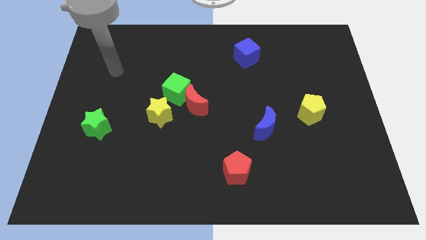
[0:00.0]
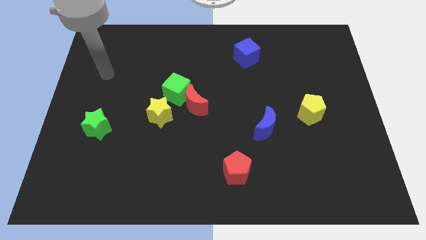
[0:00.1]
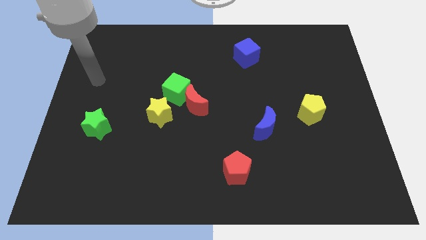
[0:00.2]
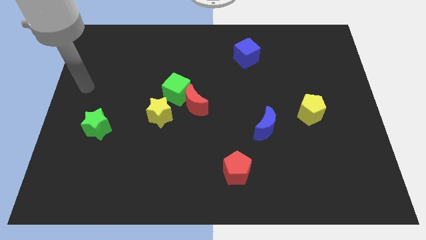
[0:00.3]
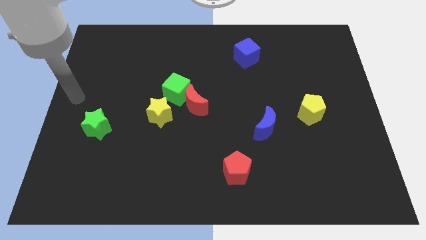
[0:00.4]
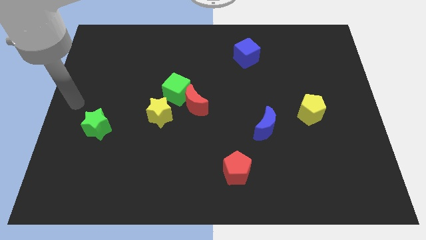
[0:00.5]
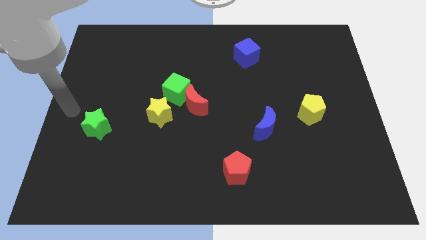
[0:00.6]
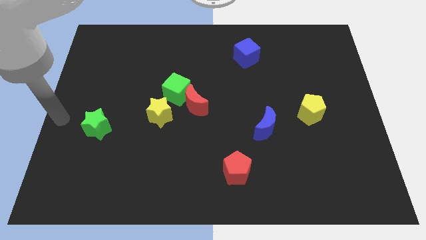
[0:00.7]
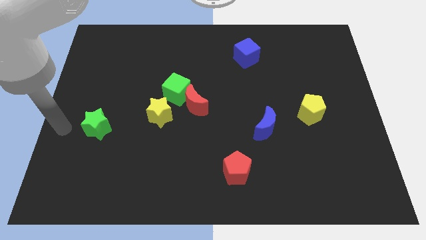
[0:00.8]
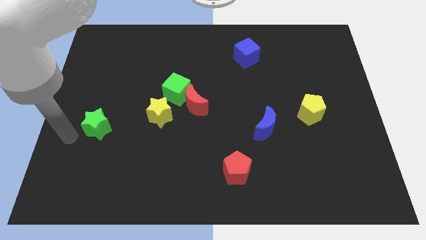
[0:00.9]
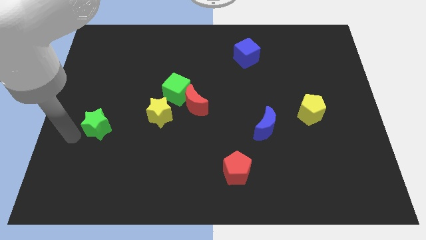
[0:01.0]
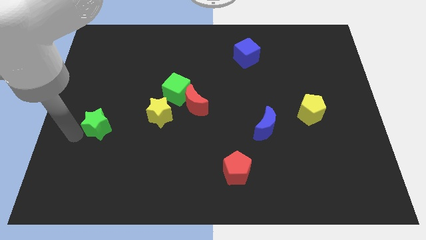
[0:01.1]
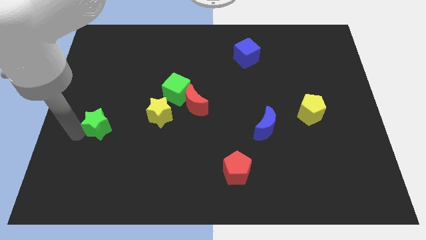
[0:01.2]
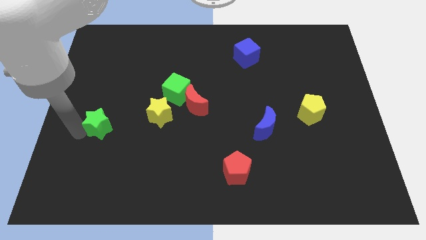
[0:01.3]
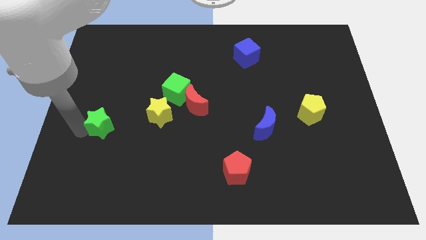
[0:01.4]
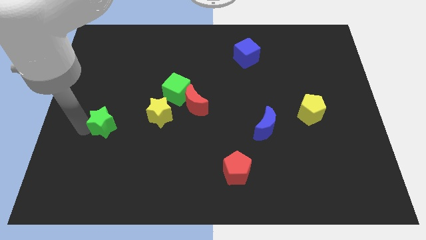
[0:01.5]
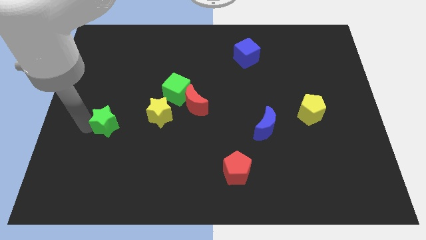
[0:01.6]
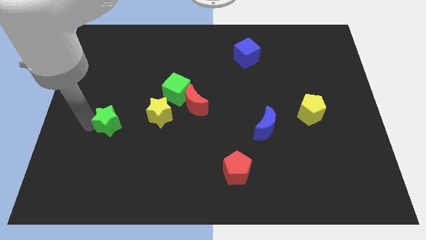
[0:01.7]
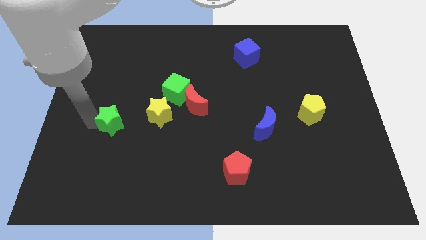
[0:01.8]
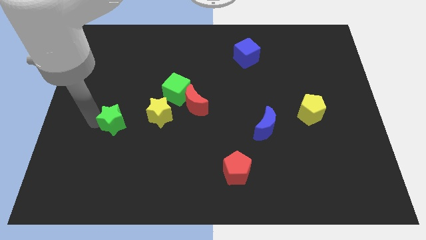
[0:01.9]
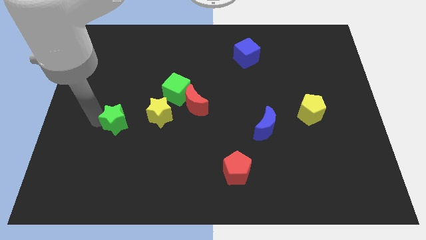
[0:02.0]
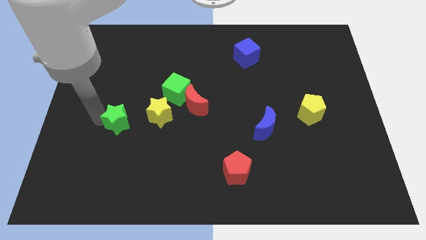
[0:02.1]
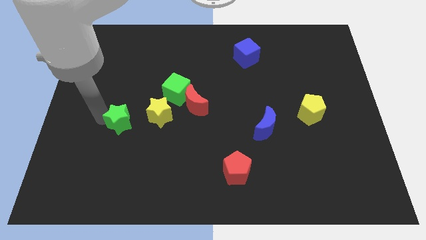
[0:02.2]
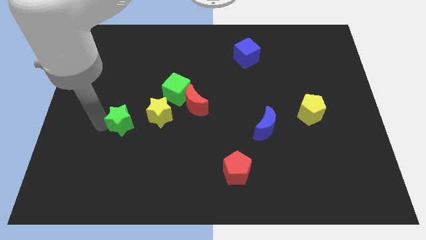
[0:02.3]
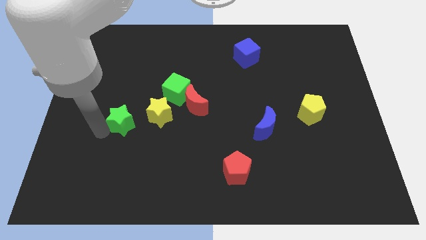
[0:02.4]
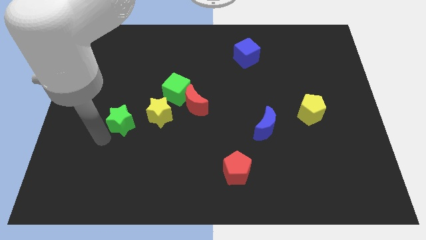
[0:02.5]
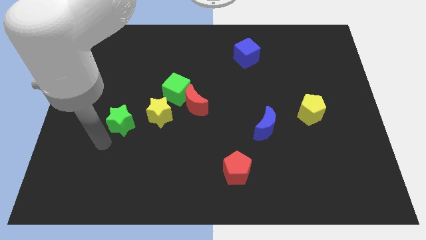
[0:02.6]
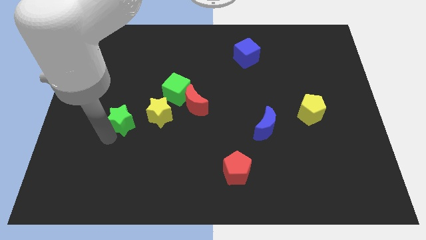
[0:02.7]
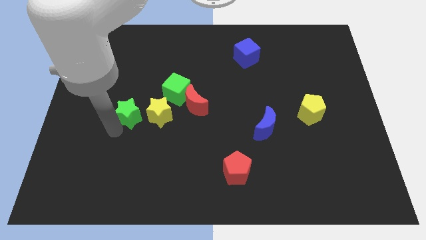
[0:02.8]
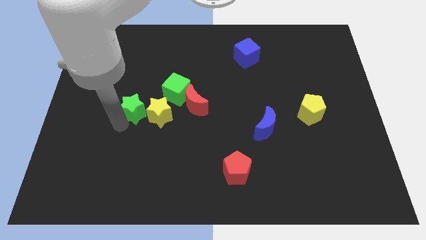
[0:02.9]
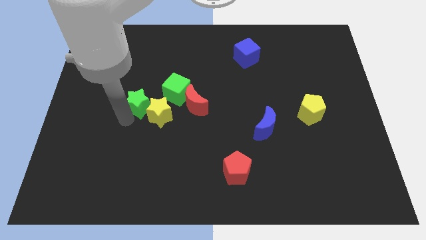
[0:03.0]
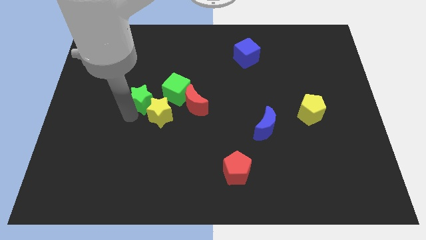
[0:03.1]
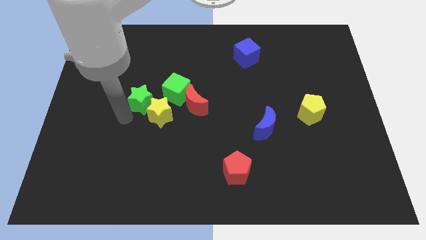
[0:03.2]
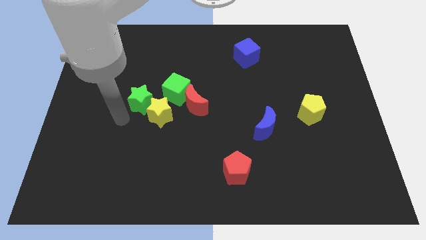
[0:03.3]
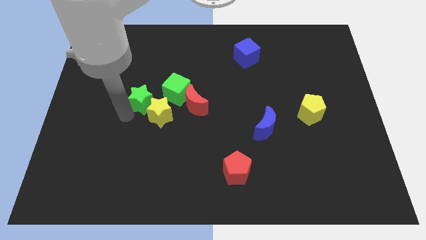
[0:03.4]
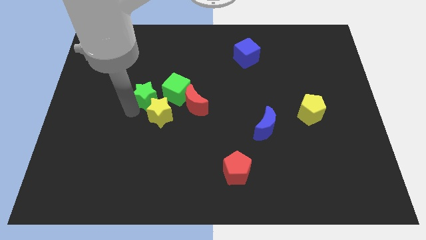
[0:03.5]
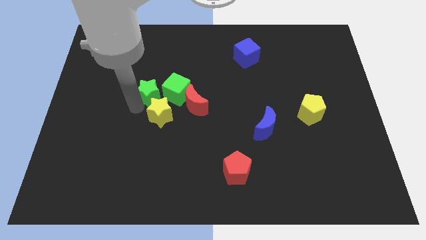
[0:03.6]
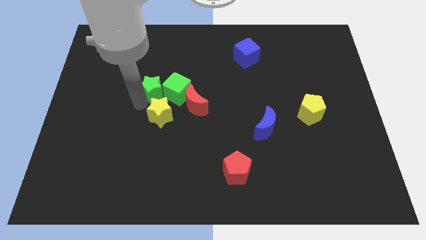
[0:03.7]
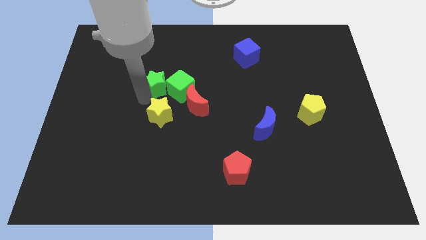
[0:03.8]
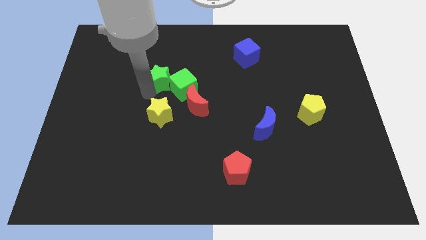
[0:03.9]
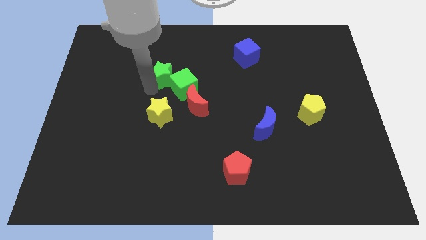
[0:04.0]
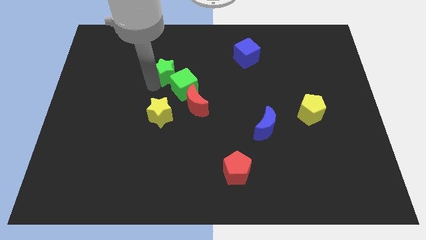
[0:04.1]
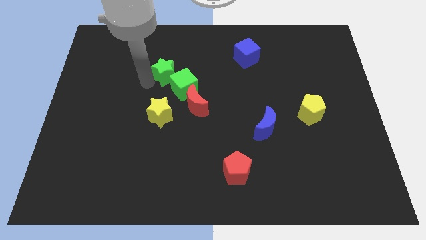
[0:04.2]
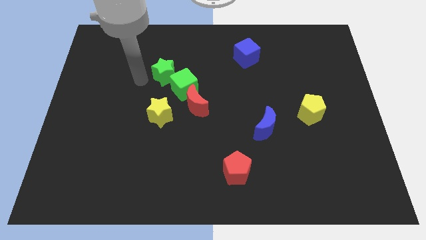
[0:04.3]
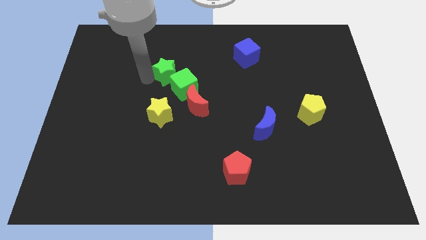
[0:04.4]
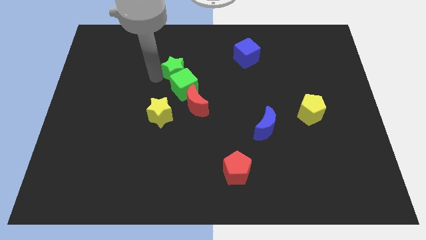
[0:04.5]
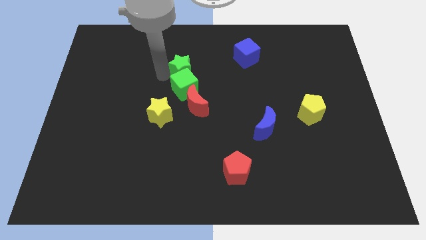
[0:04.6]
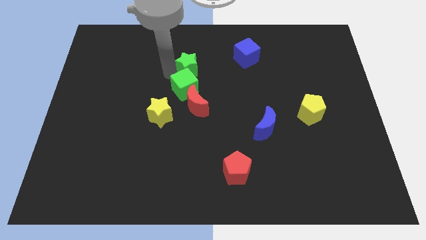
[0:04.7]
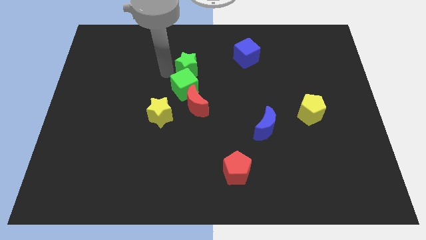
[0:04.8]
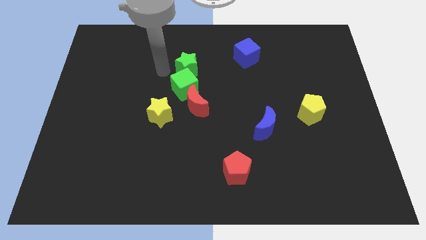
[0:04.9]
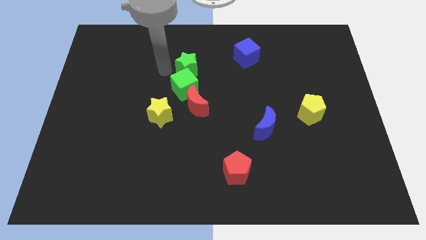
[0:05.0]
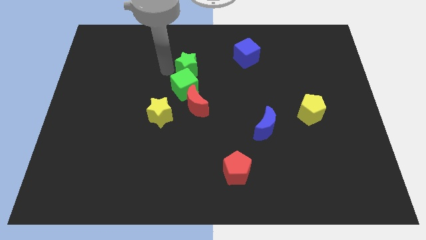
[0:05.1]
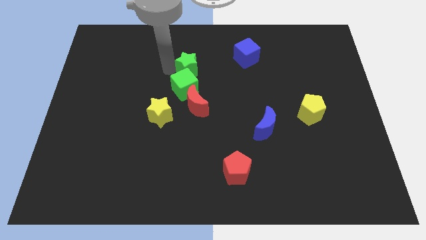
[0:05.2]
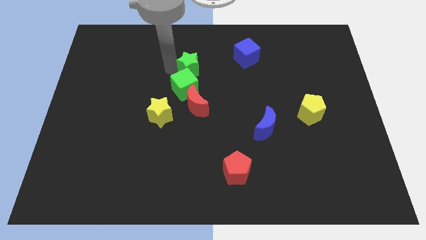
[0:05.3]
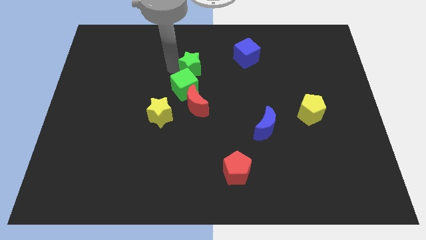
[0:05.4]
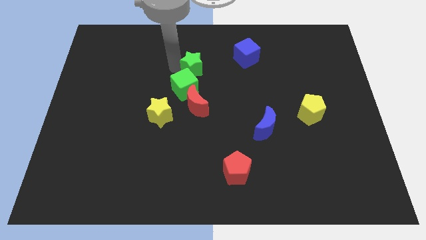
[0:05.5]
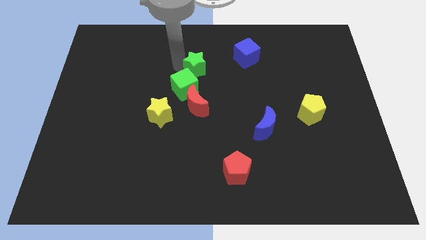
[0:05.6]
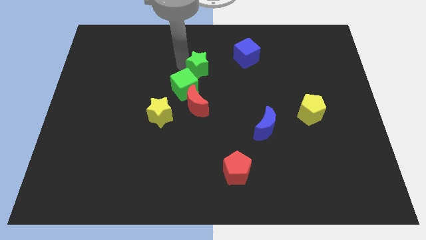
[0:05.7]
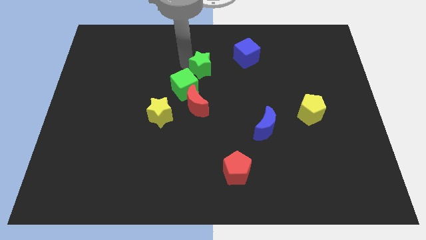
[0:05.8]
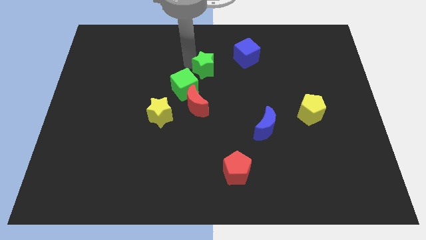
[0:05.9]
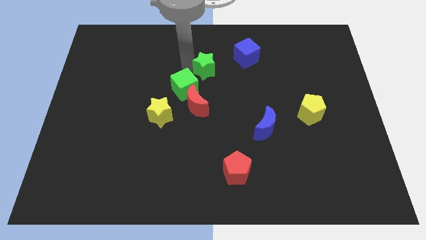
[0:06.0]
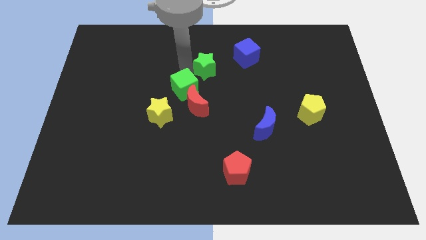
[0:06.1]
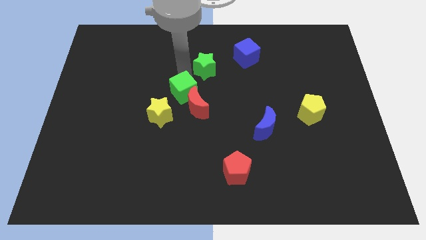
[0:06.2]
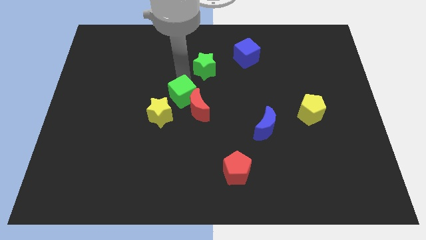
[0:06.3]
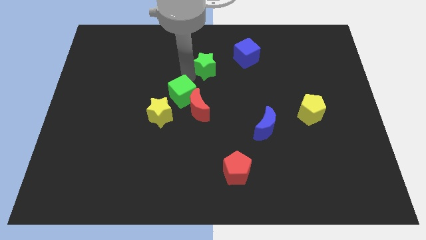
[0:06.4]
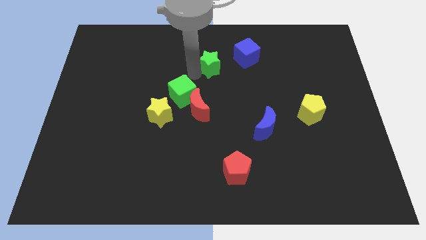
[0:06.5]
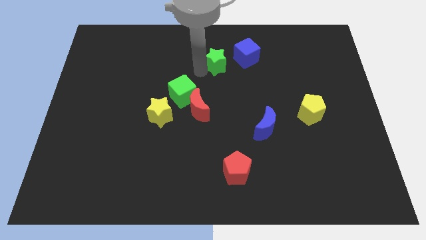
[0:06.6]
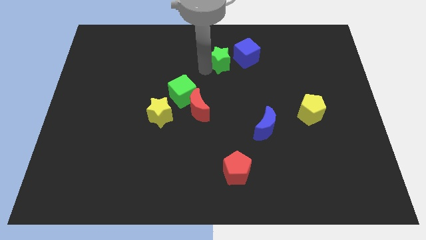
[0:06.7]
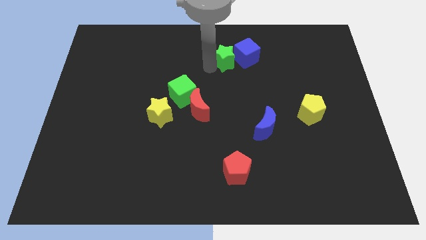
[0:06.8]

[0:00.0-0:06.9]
put the green star close to the blue cube
